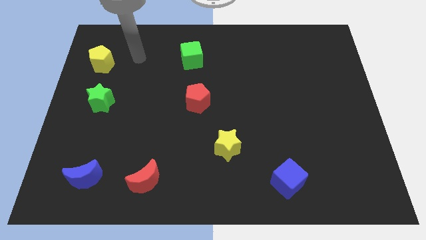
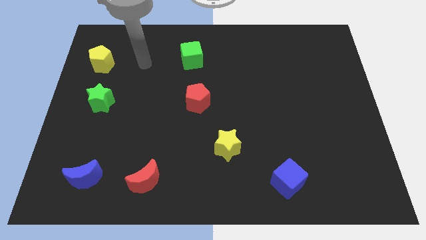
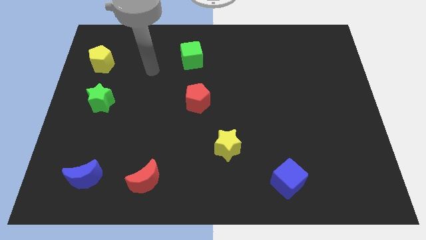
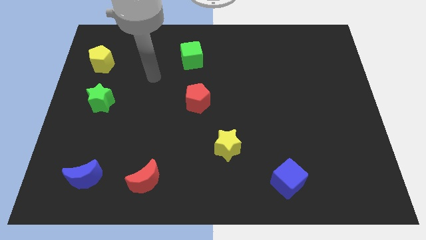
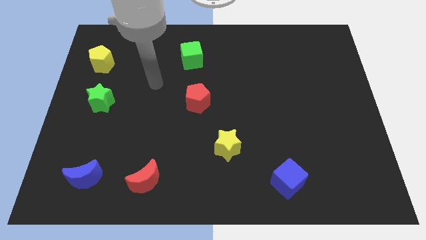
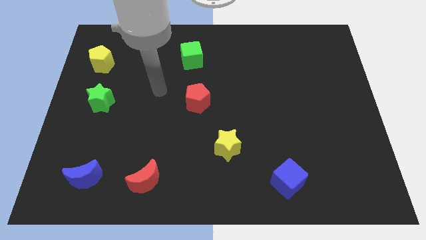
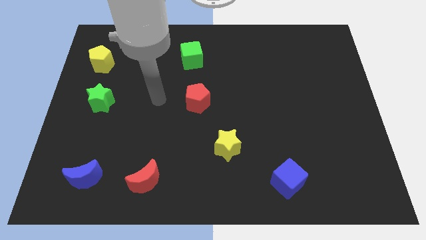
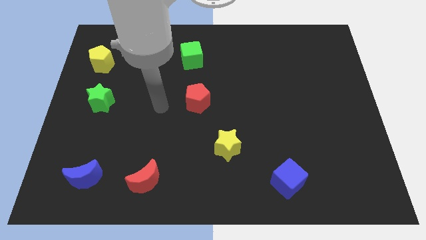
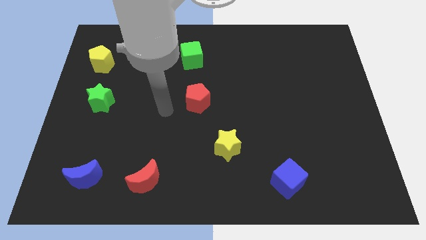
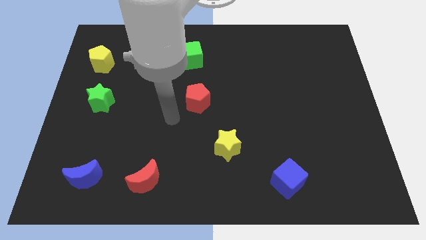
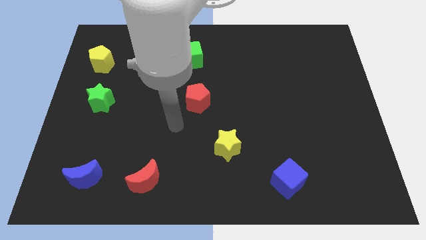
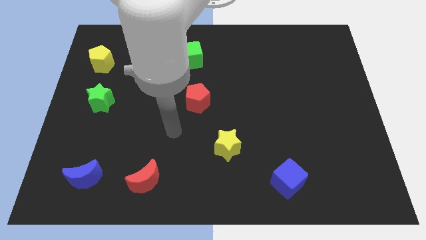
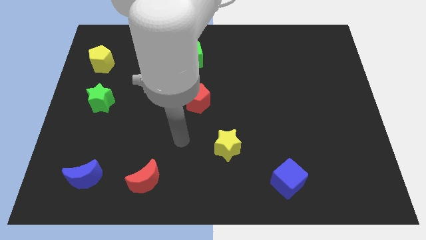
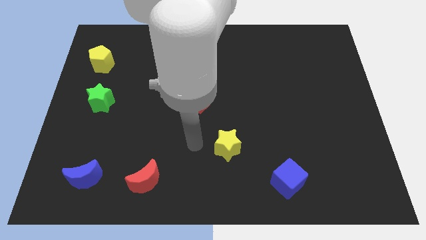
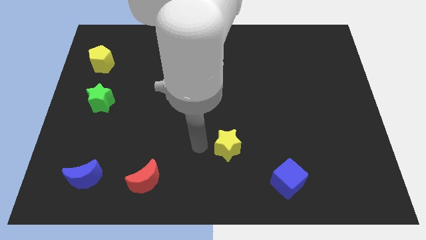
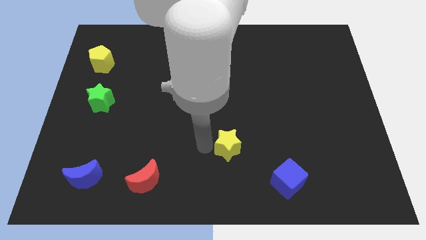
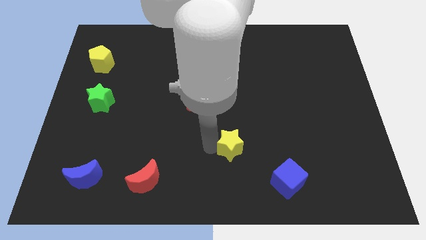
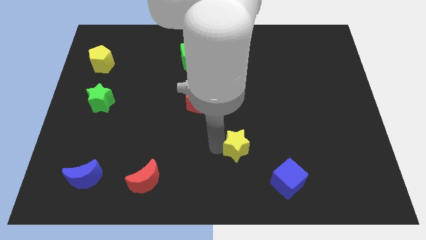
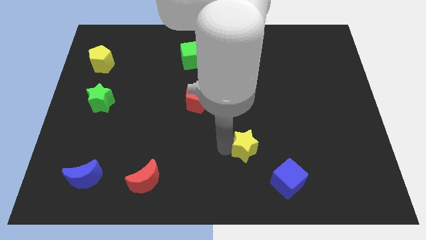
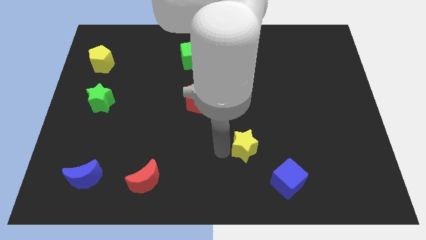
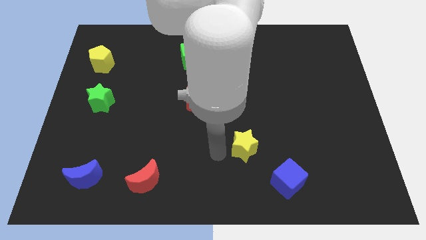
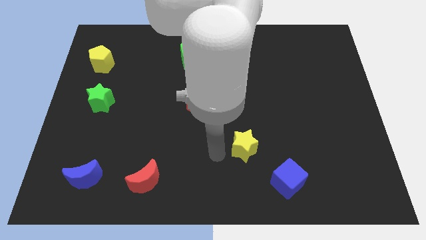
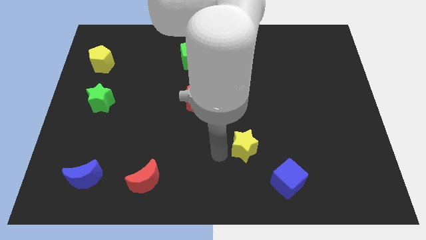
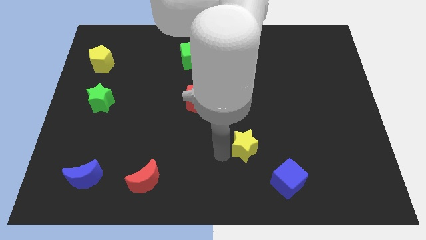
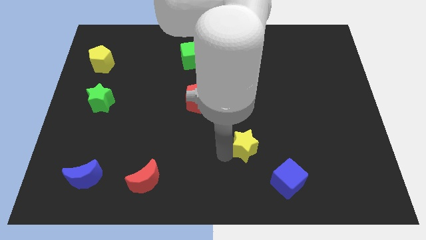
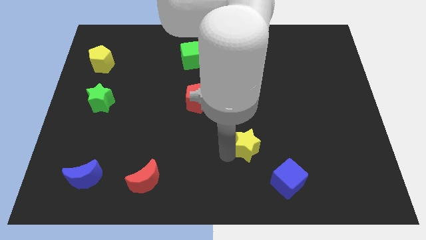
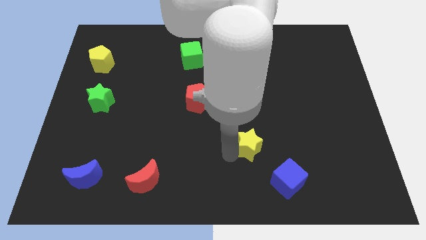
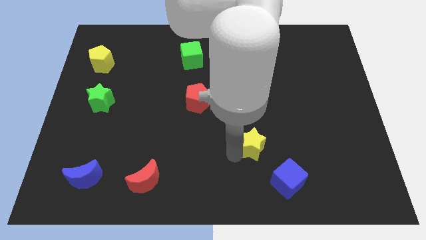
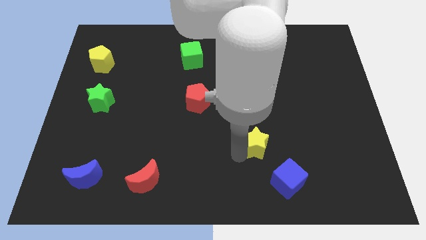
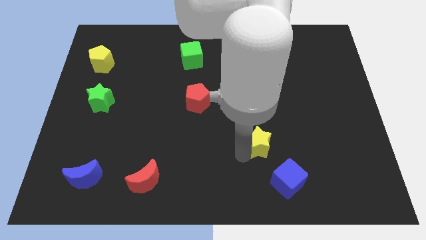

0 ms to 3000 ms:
move the yellow star right a bit

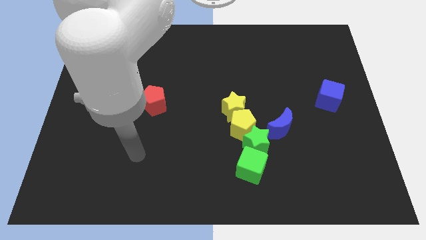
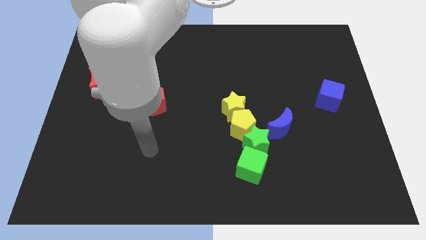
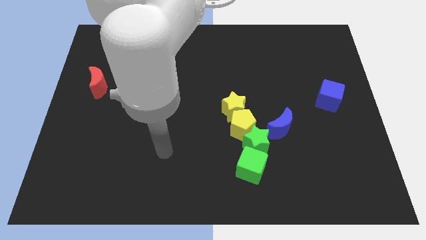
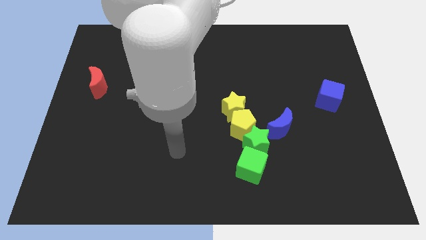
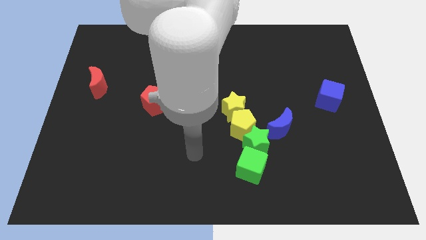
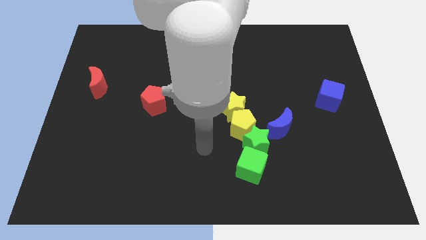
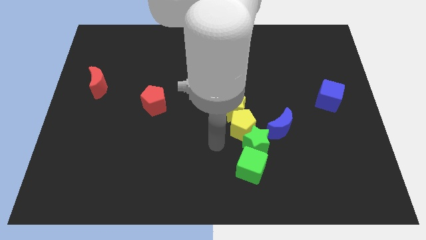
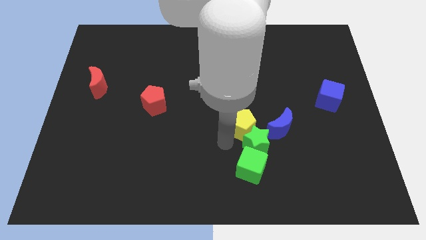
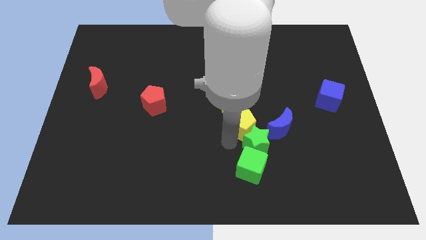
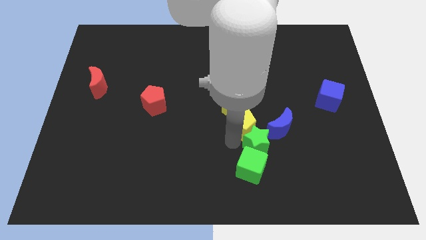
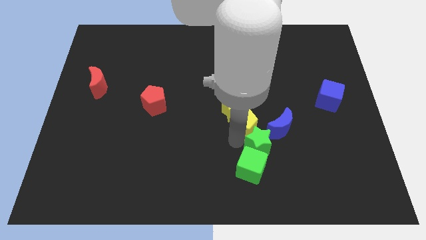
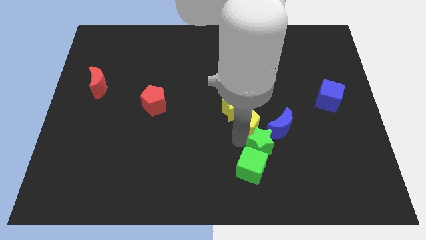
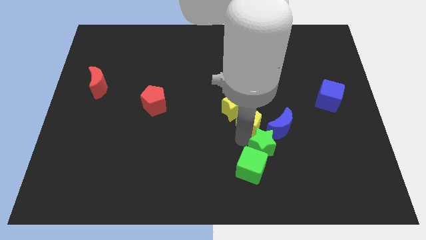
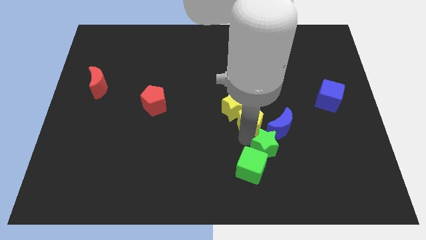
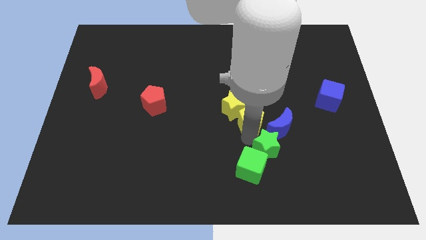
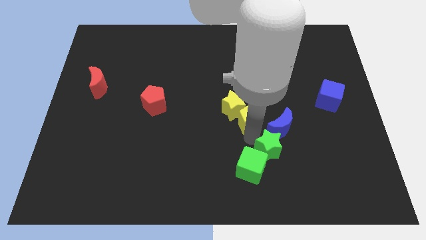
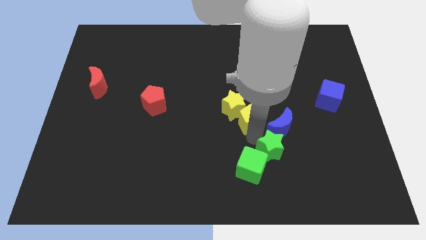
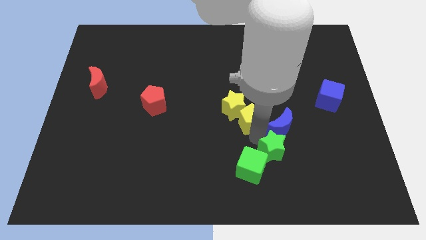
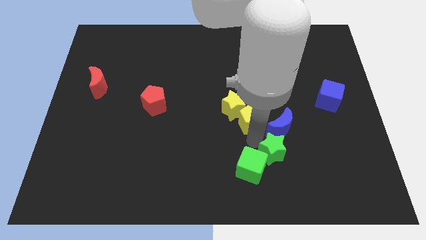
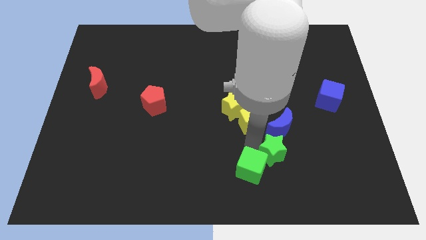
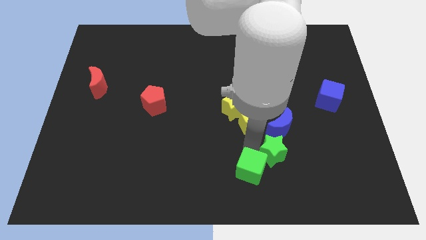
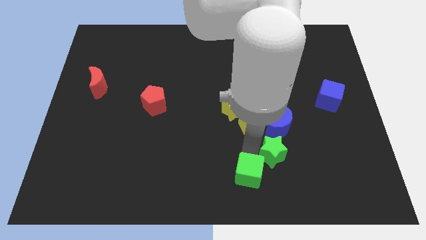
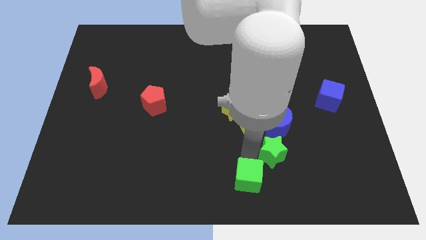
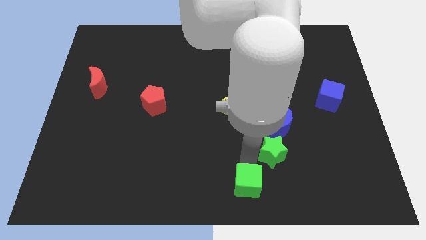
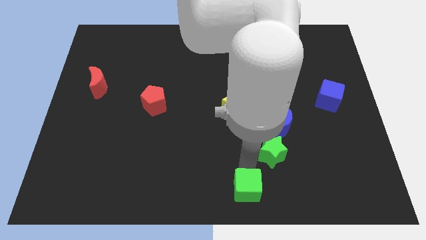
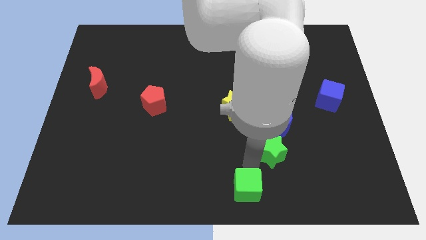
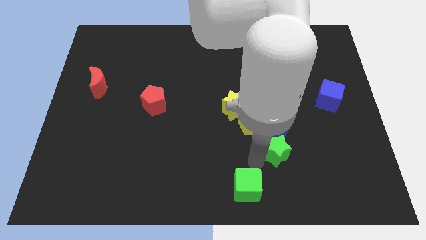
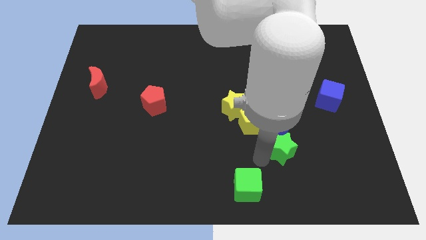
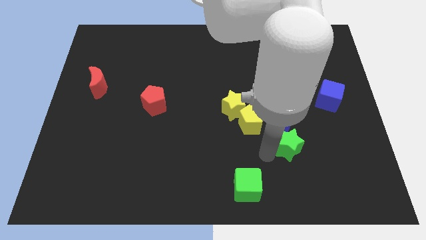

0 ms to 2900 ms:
slightly push the green star to the right

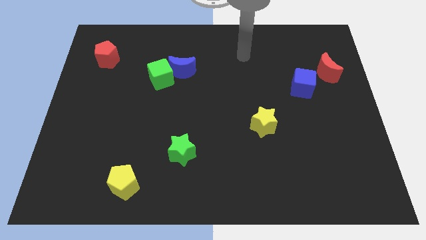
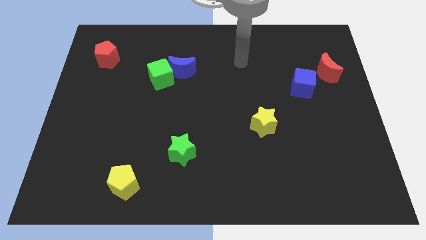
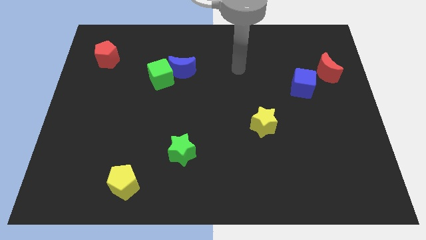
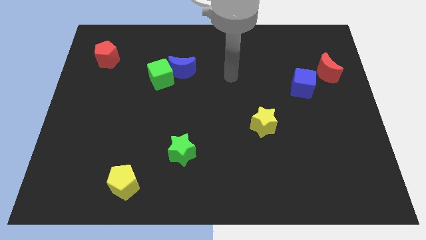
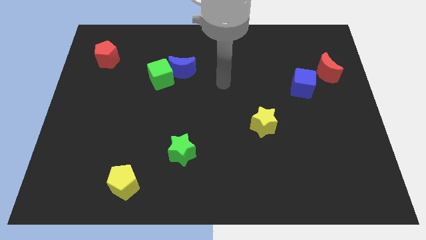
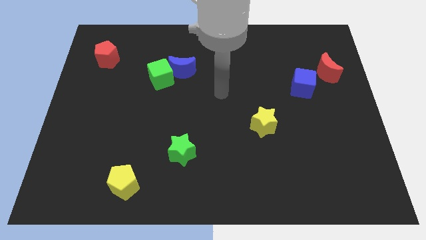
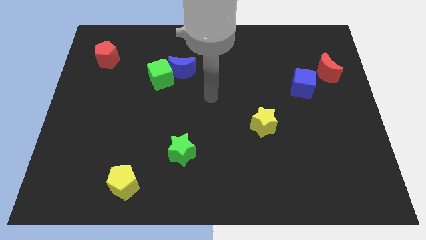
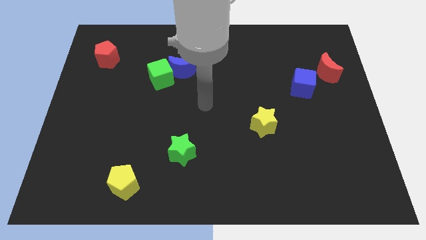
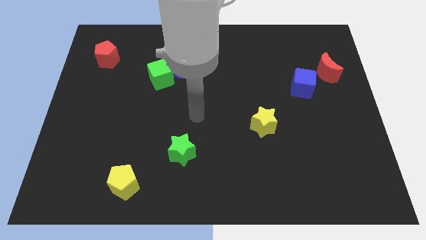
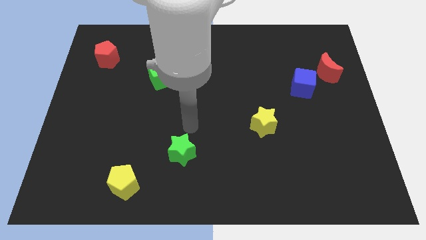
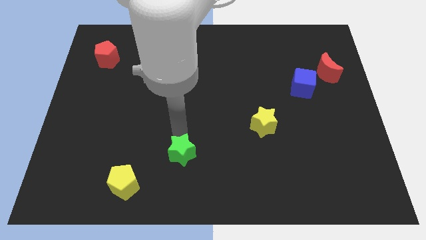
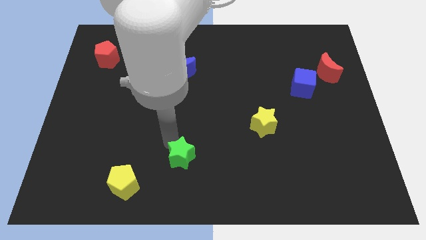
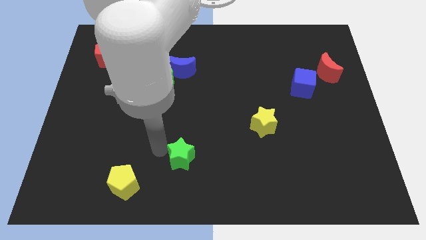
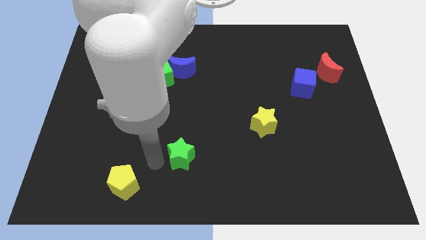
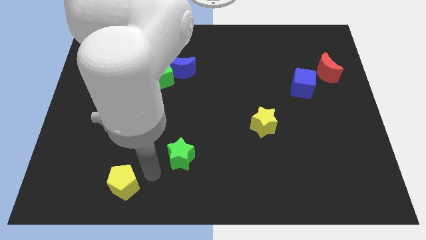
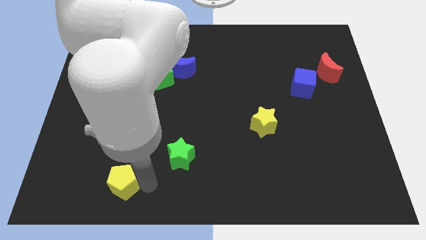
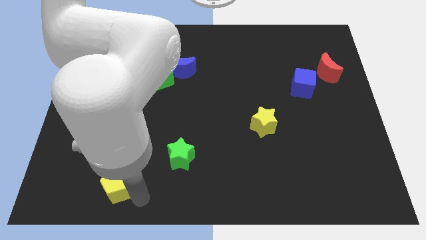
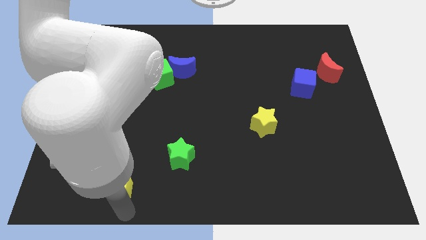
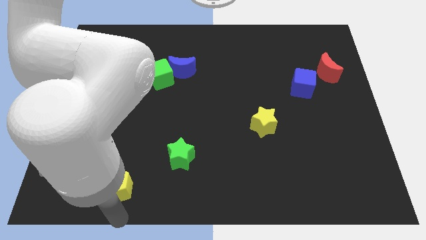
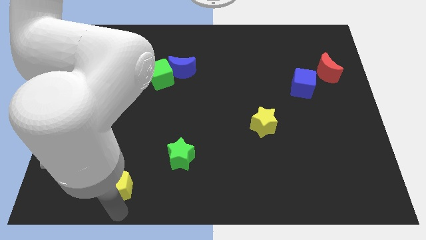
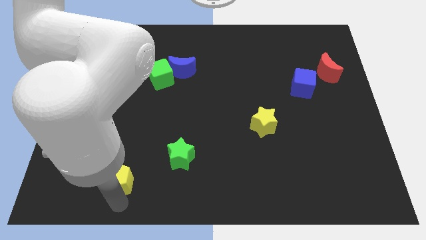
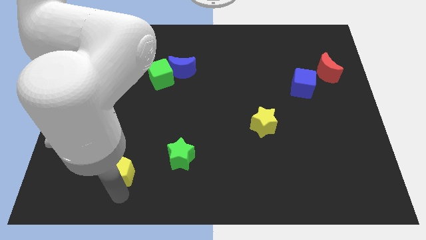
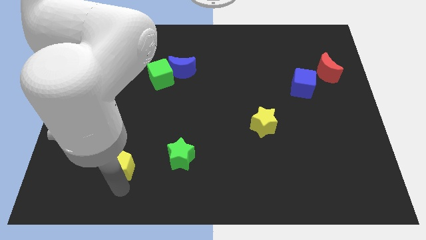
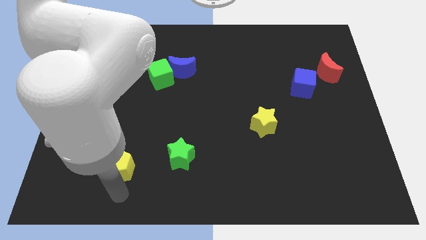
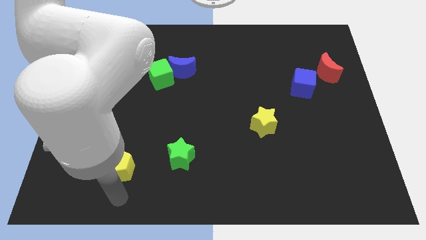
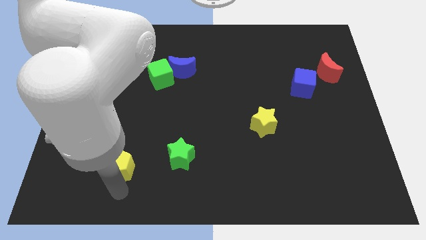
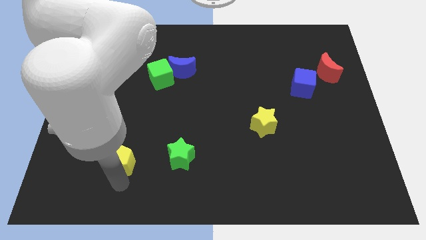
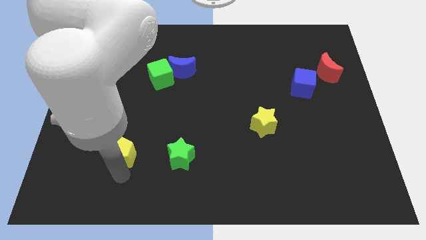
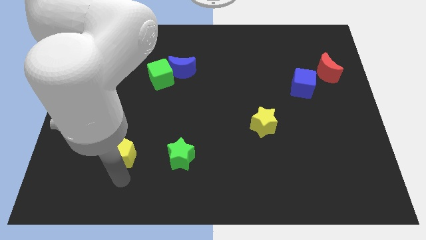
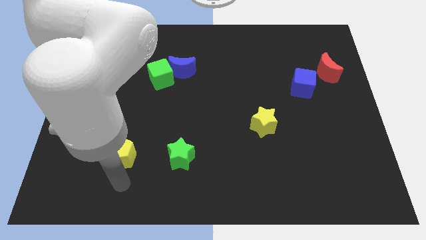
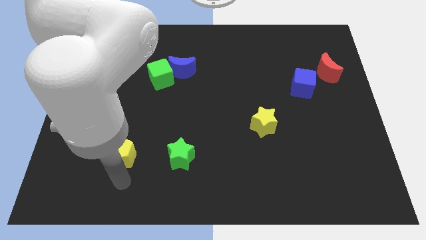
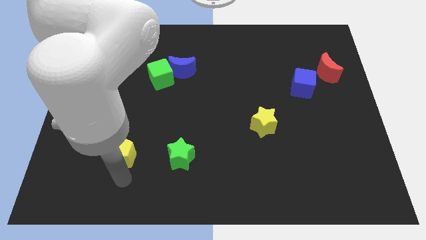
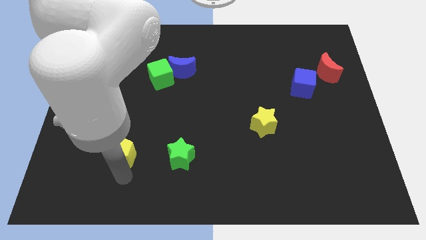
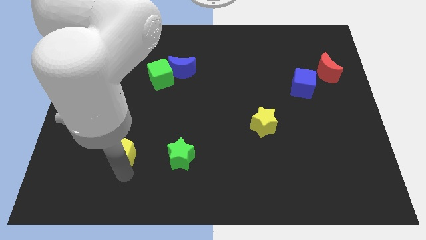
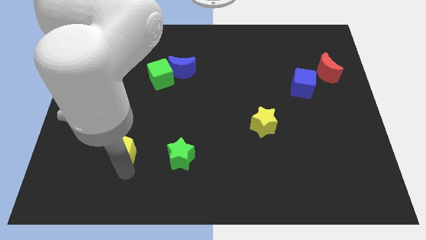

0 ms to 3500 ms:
push the yellow pentagon up a little bit
